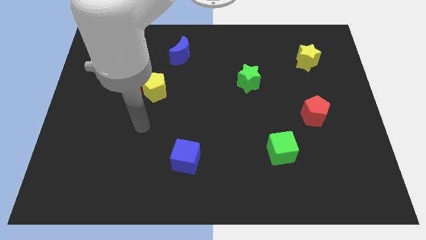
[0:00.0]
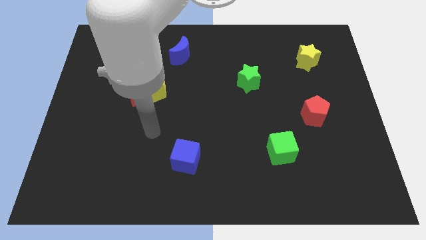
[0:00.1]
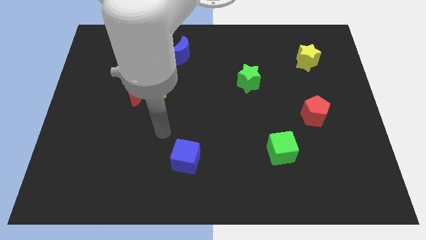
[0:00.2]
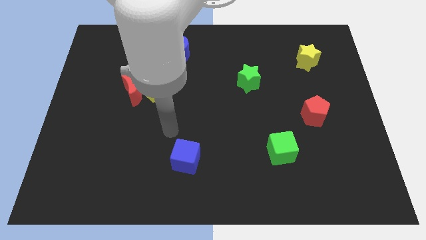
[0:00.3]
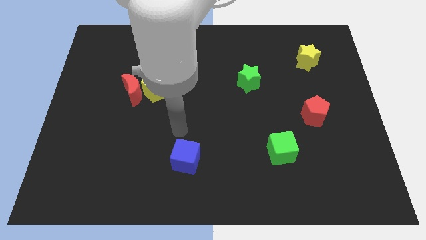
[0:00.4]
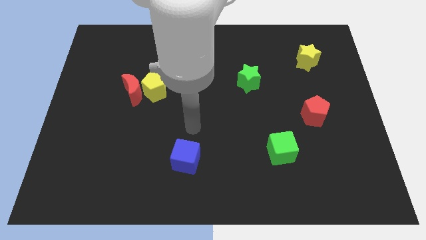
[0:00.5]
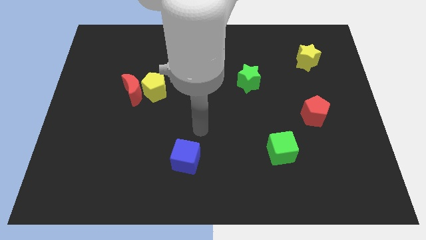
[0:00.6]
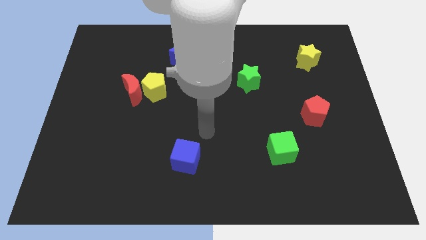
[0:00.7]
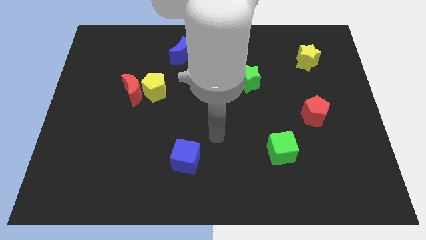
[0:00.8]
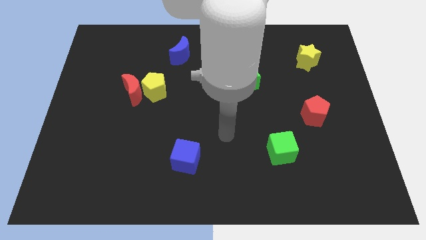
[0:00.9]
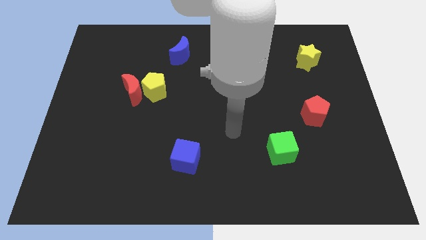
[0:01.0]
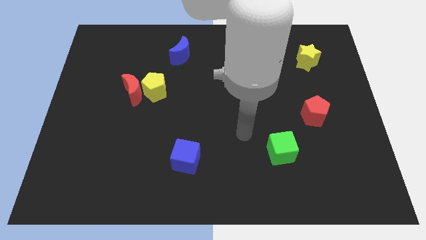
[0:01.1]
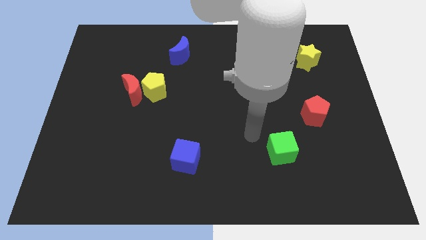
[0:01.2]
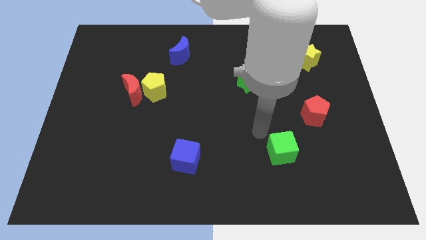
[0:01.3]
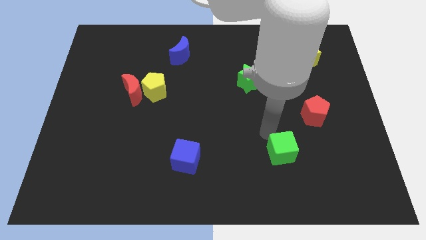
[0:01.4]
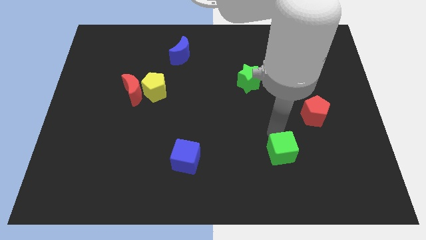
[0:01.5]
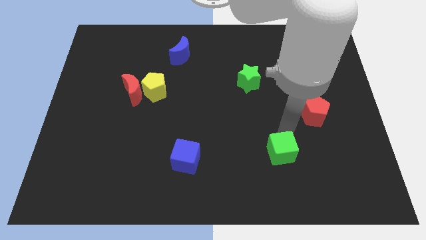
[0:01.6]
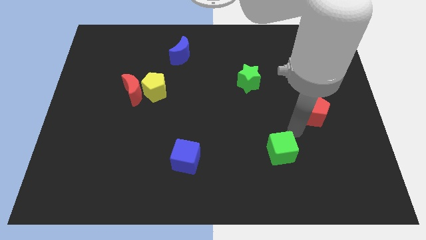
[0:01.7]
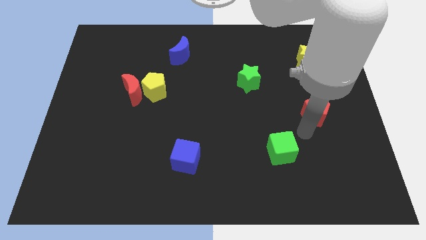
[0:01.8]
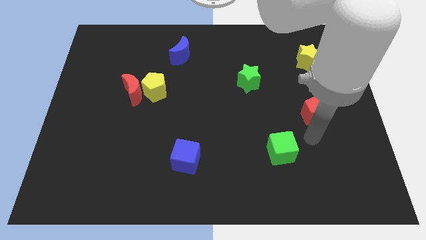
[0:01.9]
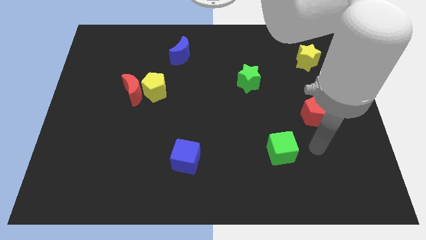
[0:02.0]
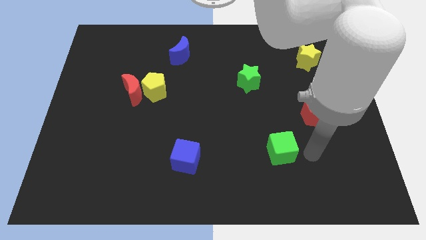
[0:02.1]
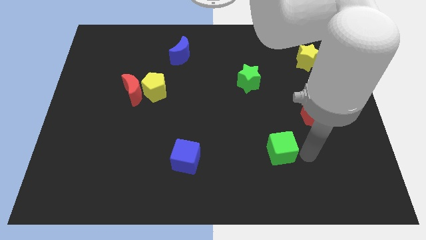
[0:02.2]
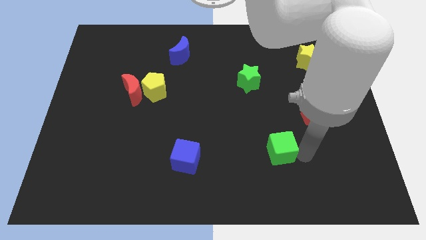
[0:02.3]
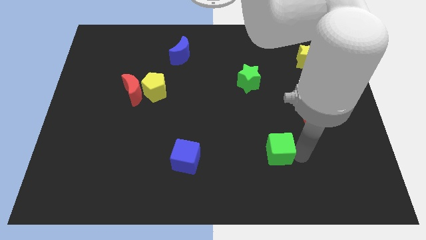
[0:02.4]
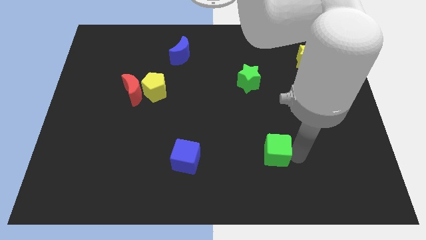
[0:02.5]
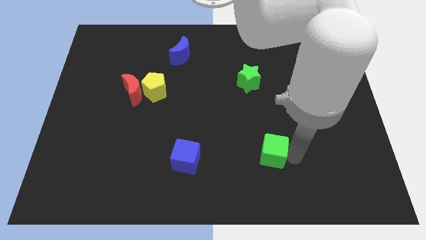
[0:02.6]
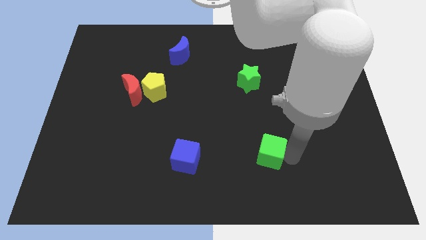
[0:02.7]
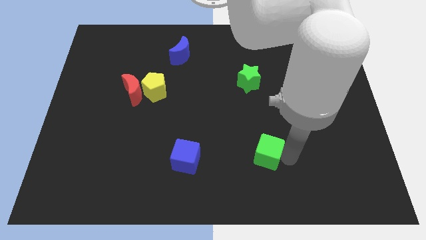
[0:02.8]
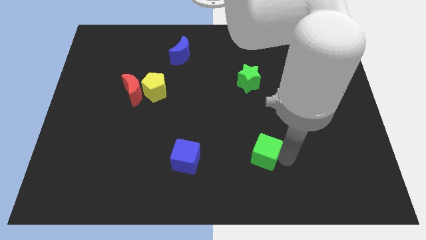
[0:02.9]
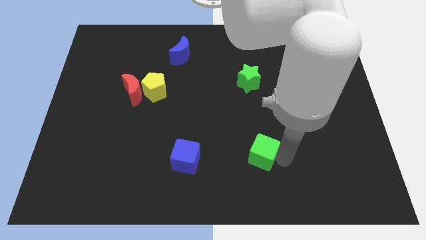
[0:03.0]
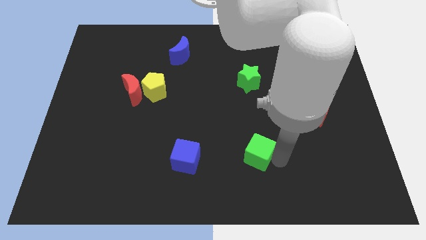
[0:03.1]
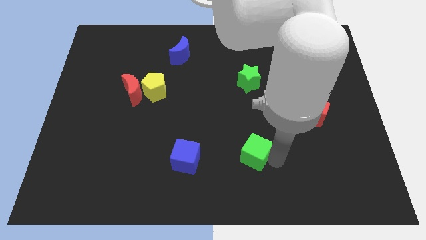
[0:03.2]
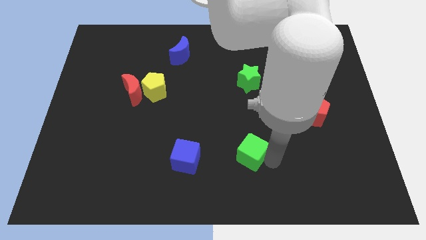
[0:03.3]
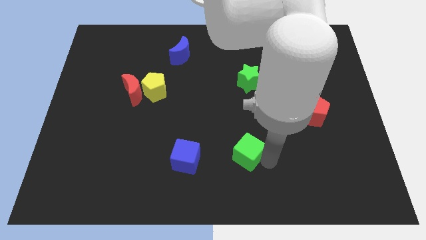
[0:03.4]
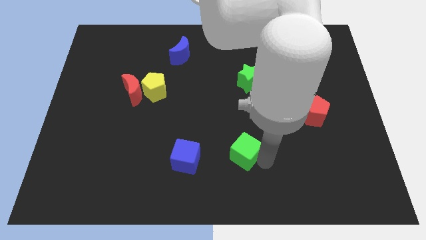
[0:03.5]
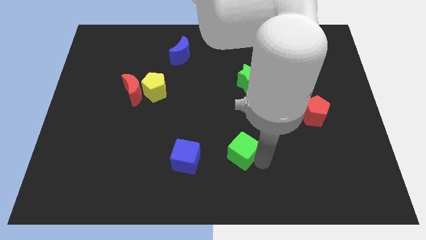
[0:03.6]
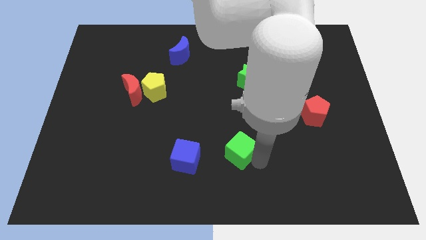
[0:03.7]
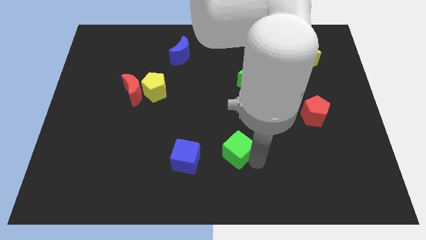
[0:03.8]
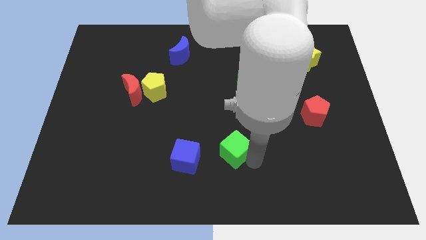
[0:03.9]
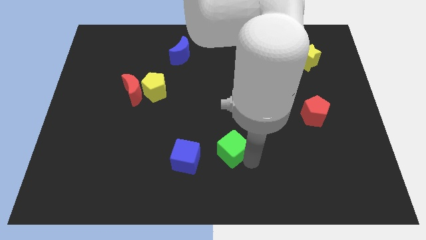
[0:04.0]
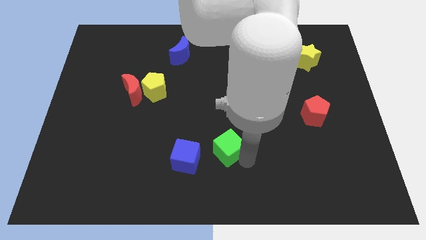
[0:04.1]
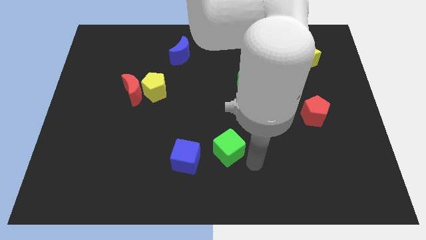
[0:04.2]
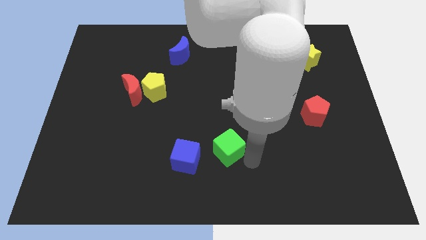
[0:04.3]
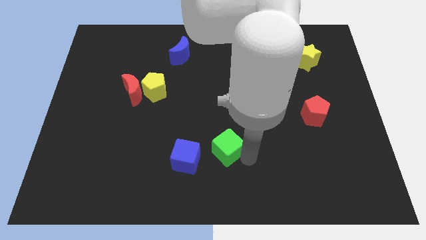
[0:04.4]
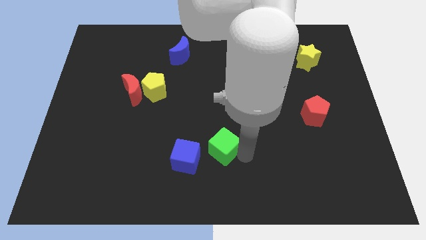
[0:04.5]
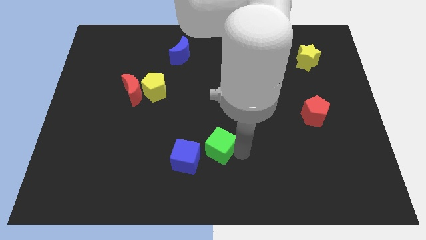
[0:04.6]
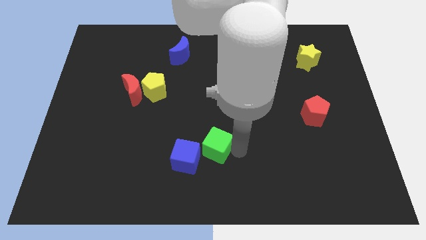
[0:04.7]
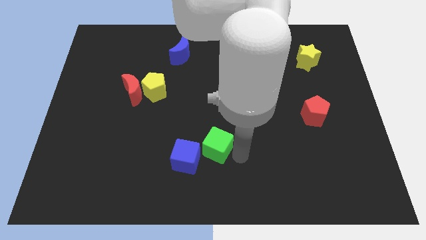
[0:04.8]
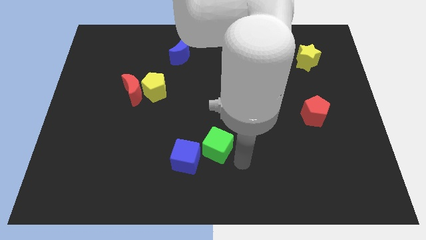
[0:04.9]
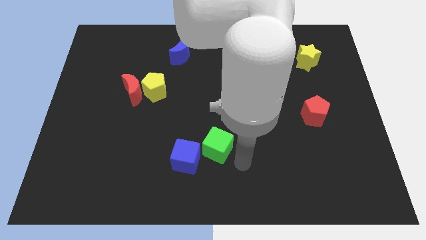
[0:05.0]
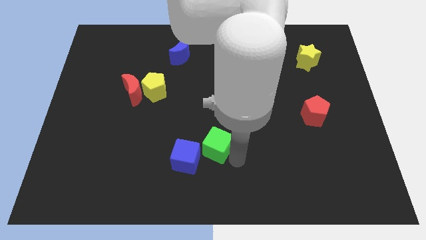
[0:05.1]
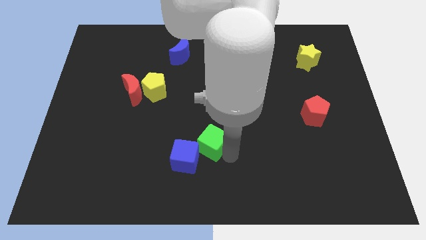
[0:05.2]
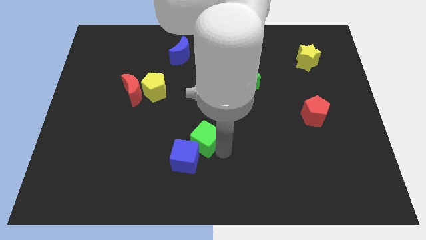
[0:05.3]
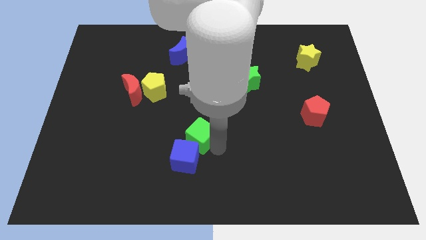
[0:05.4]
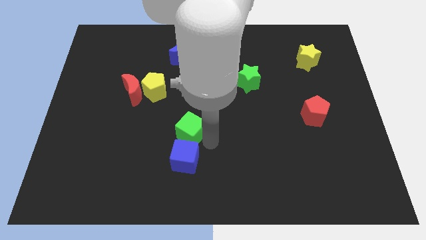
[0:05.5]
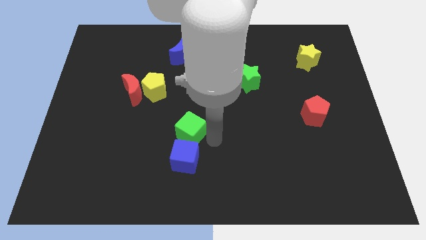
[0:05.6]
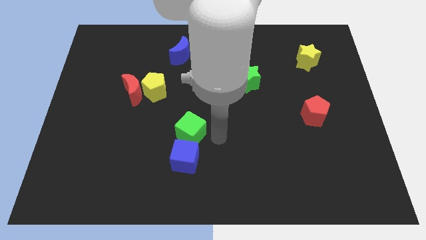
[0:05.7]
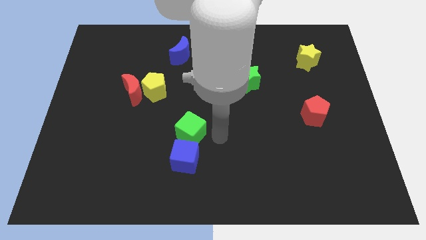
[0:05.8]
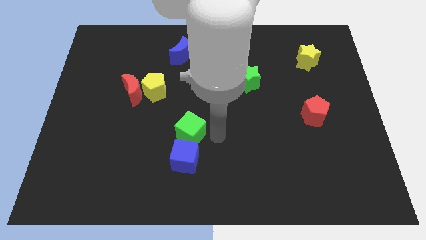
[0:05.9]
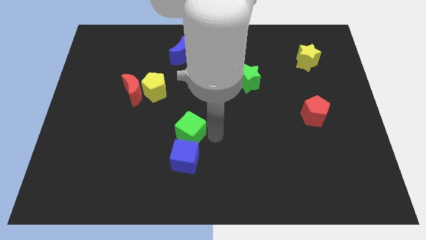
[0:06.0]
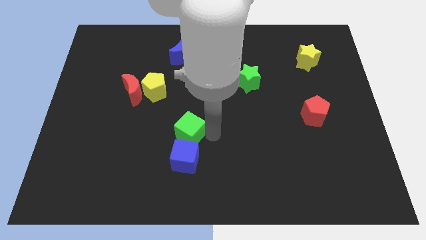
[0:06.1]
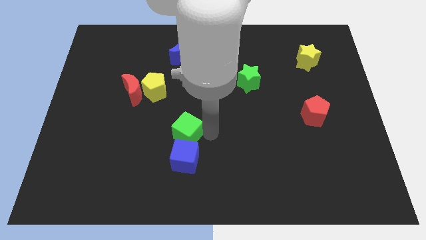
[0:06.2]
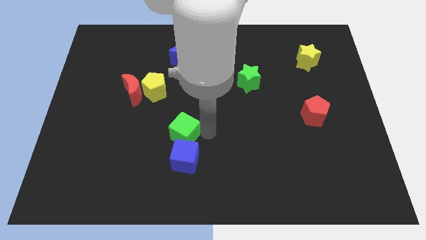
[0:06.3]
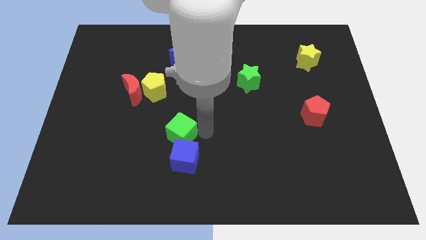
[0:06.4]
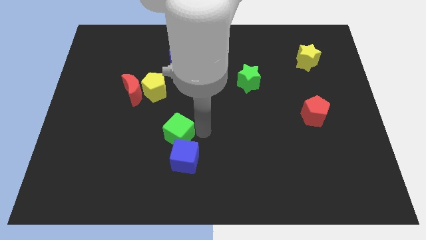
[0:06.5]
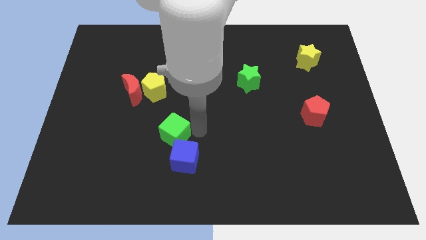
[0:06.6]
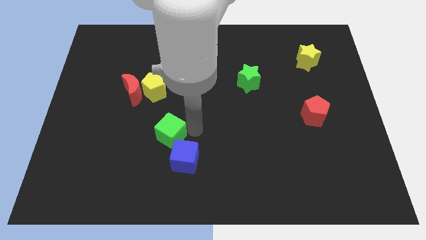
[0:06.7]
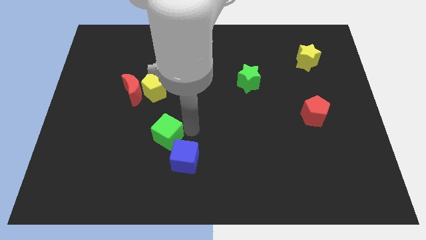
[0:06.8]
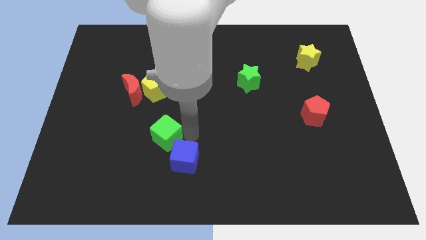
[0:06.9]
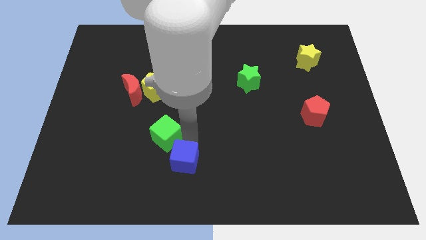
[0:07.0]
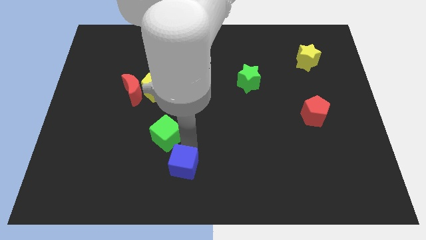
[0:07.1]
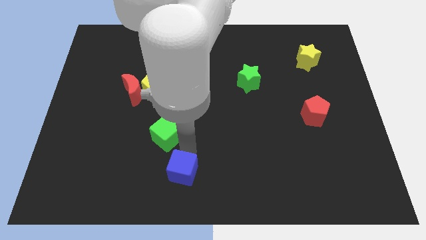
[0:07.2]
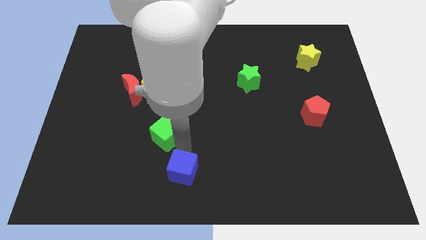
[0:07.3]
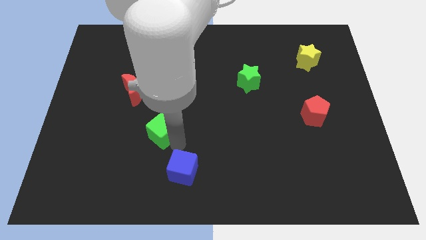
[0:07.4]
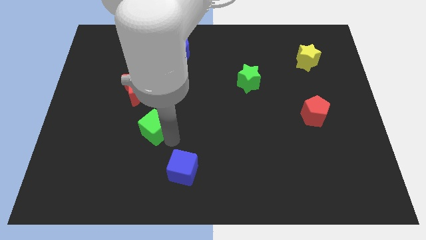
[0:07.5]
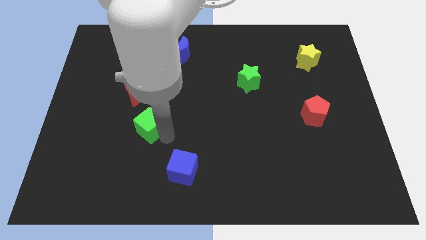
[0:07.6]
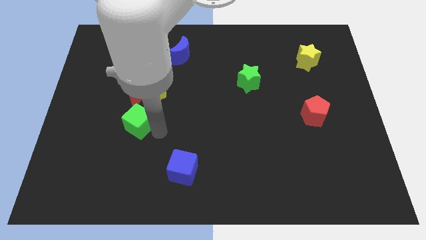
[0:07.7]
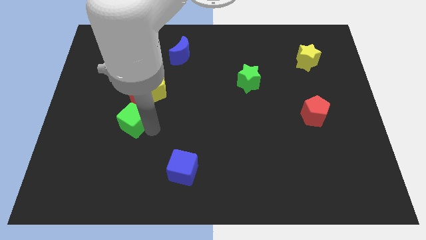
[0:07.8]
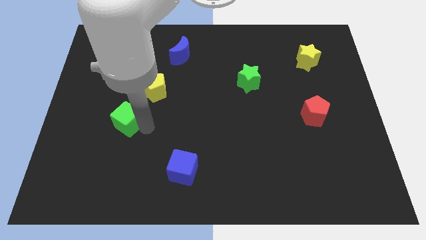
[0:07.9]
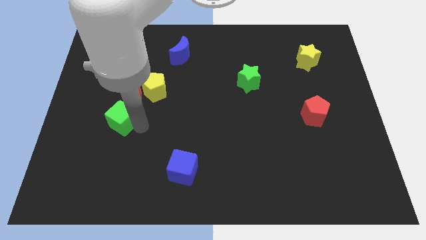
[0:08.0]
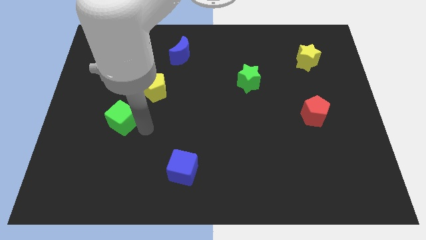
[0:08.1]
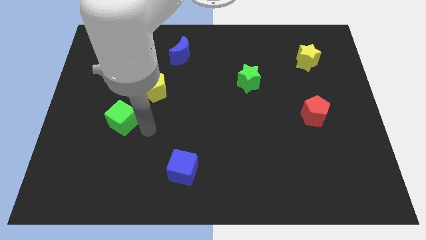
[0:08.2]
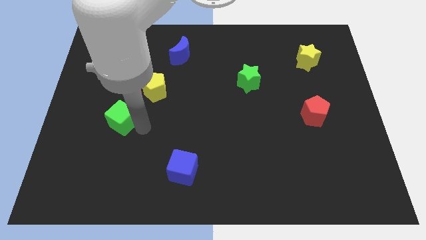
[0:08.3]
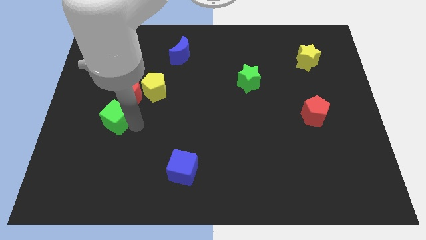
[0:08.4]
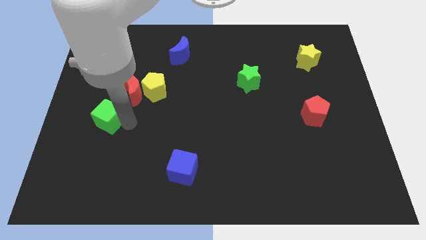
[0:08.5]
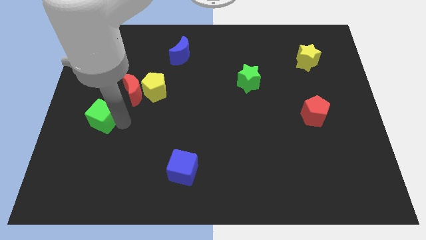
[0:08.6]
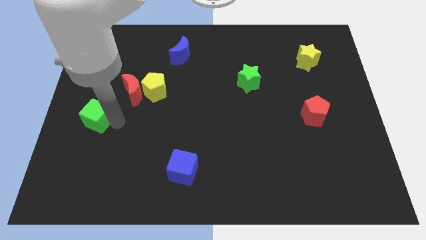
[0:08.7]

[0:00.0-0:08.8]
push the green cube to the center left
